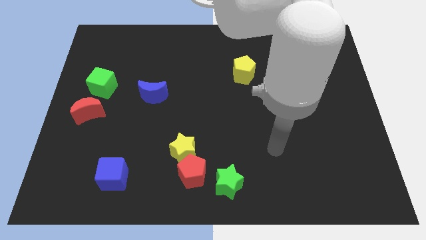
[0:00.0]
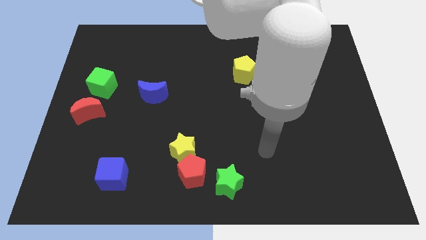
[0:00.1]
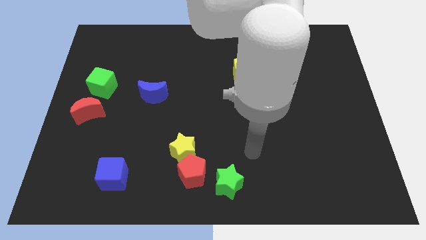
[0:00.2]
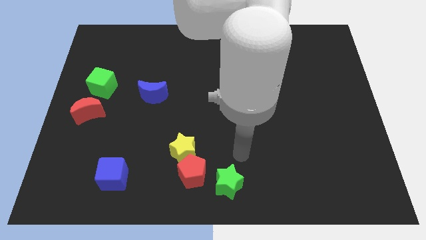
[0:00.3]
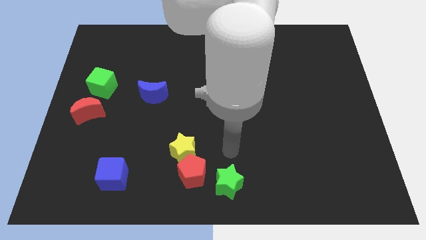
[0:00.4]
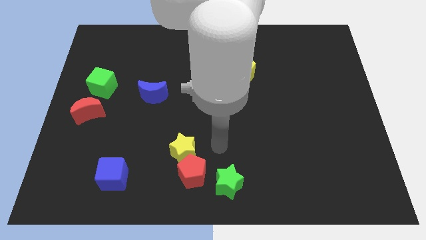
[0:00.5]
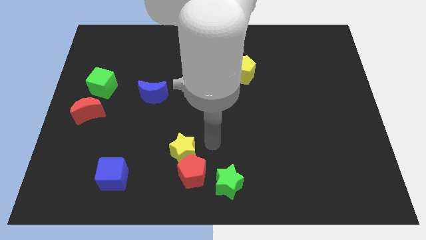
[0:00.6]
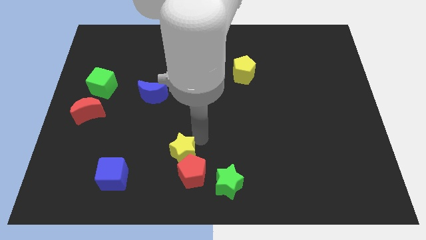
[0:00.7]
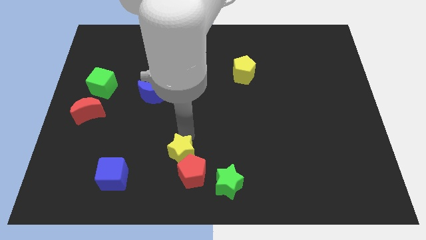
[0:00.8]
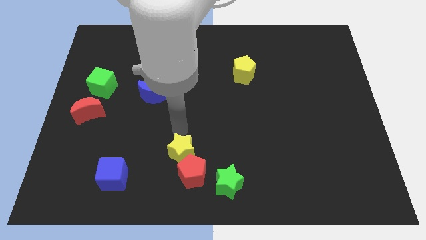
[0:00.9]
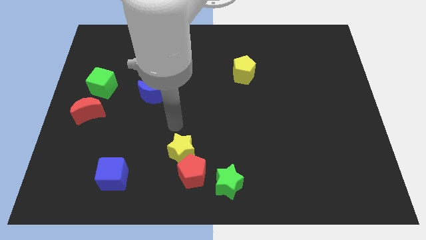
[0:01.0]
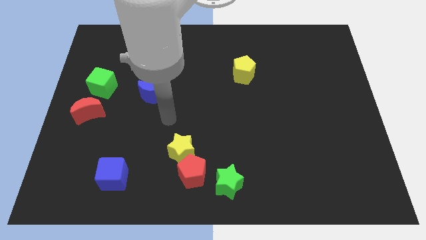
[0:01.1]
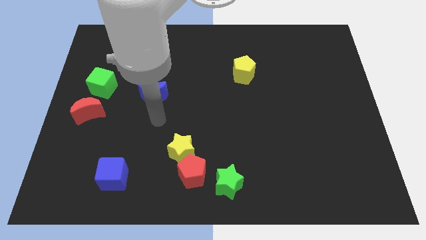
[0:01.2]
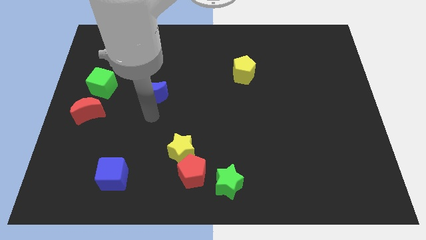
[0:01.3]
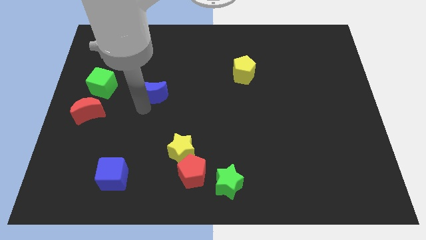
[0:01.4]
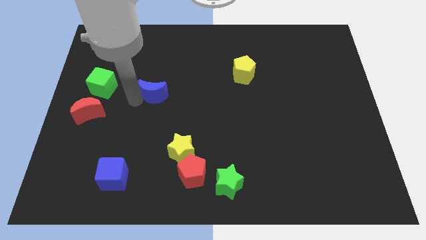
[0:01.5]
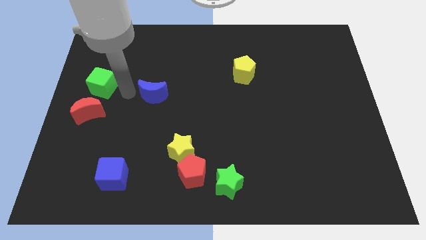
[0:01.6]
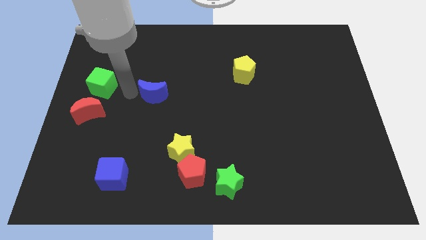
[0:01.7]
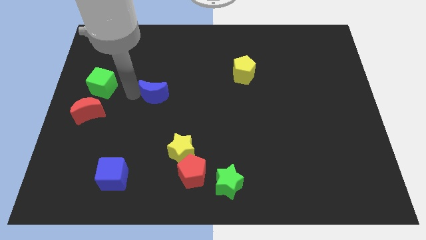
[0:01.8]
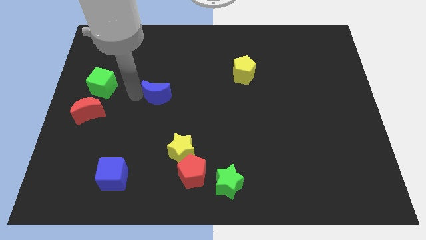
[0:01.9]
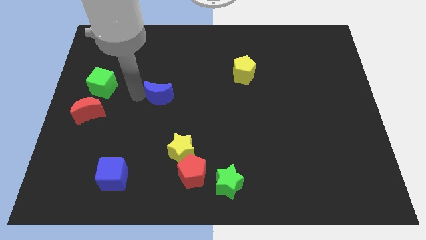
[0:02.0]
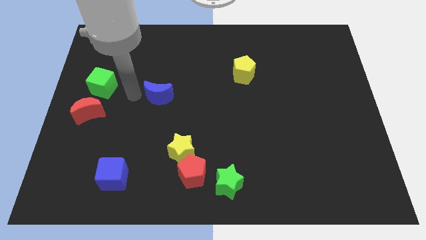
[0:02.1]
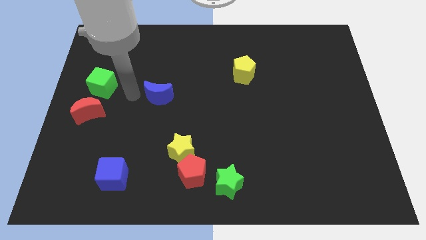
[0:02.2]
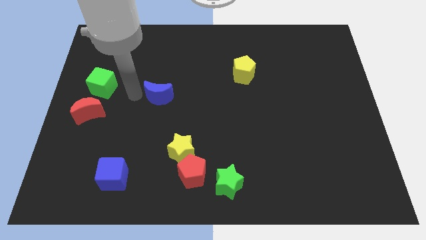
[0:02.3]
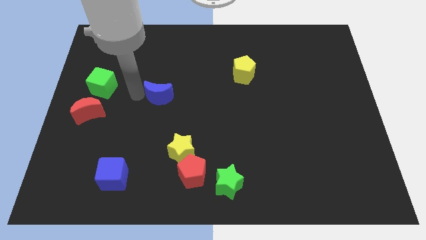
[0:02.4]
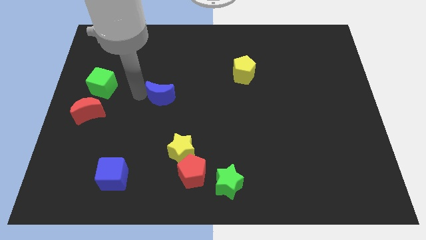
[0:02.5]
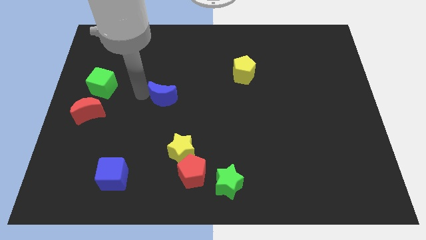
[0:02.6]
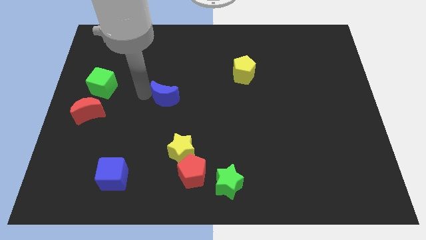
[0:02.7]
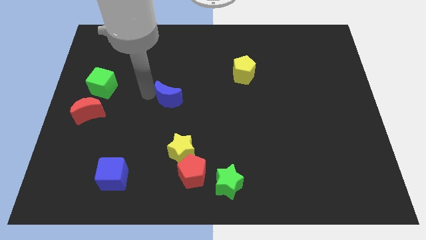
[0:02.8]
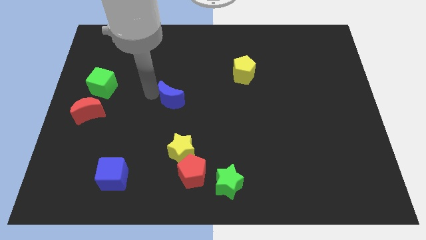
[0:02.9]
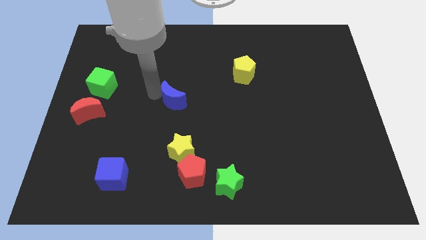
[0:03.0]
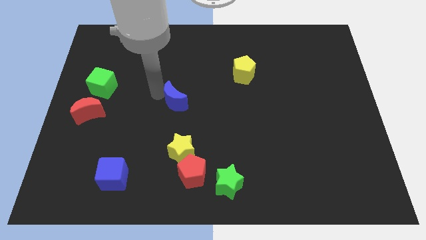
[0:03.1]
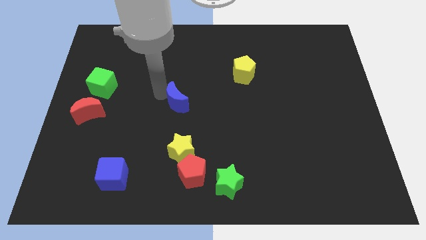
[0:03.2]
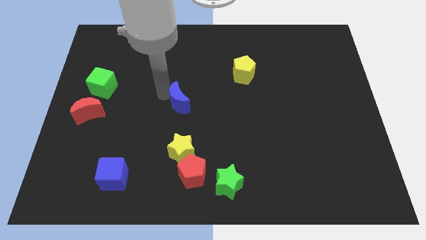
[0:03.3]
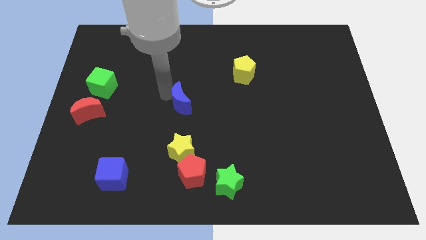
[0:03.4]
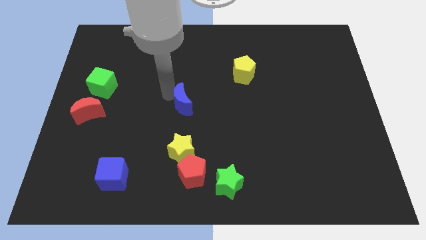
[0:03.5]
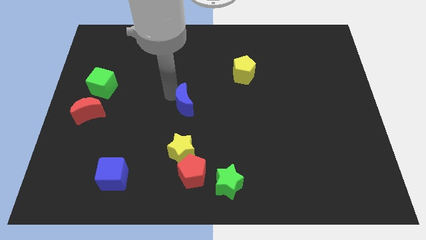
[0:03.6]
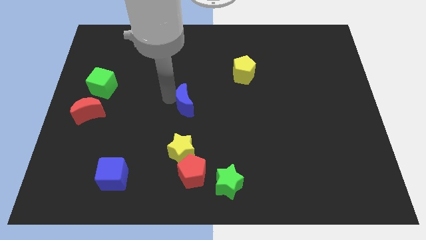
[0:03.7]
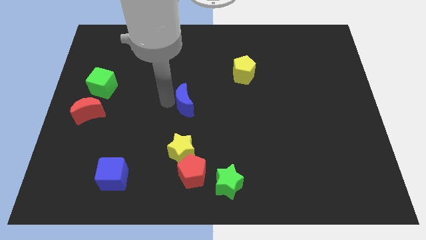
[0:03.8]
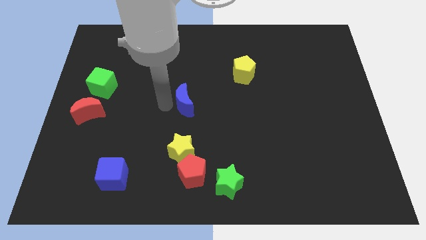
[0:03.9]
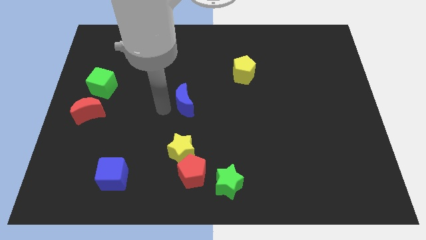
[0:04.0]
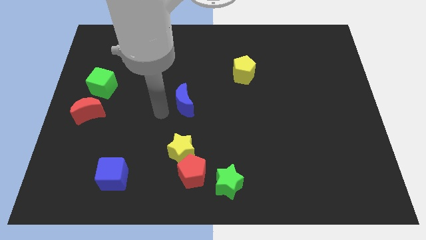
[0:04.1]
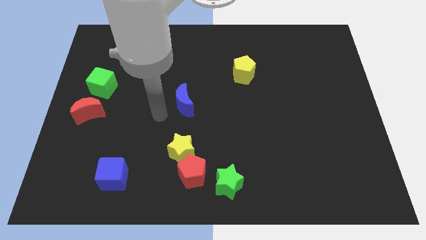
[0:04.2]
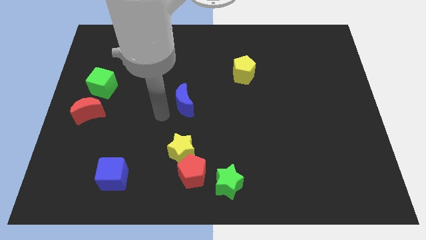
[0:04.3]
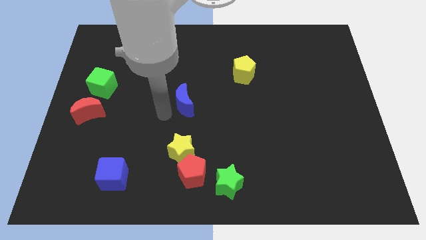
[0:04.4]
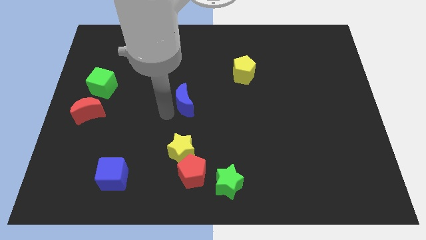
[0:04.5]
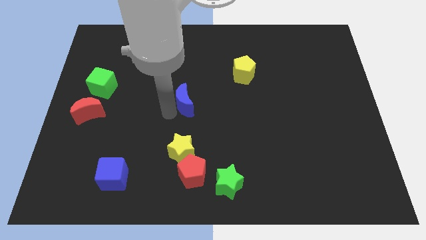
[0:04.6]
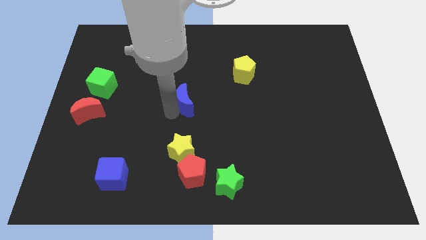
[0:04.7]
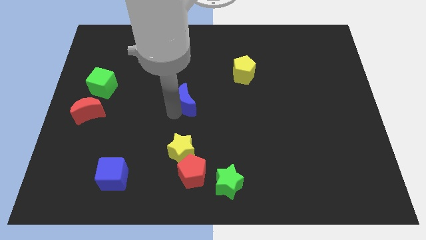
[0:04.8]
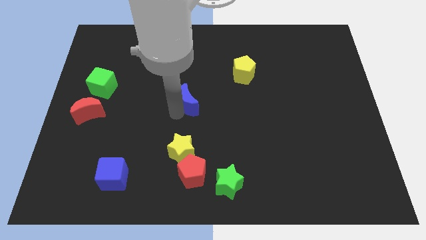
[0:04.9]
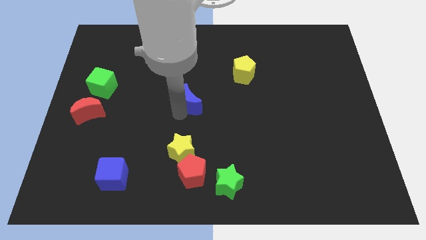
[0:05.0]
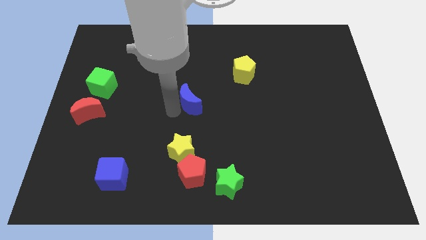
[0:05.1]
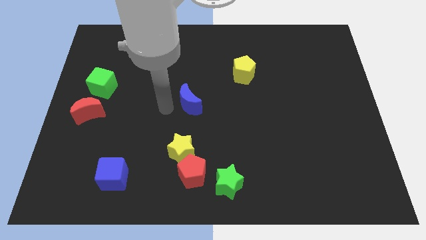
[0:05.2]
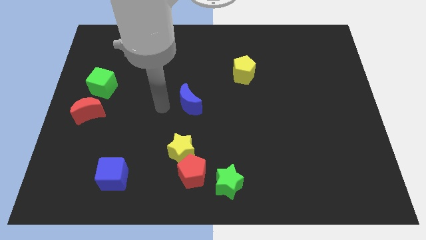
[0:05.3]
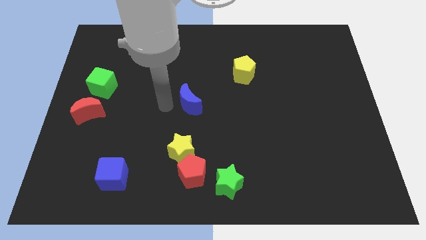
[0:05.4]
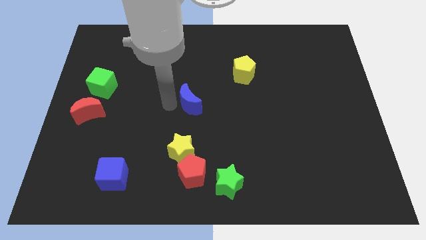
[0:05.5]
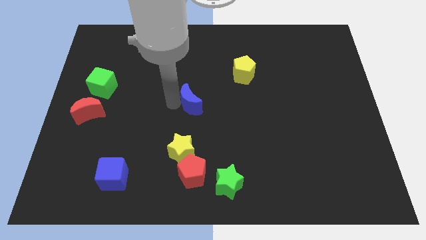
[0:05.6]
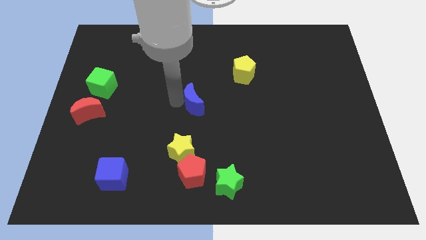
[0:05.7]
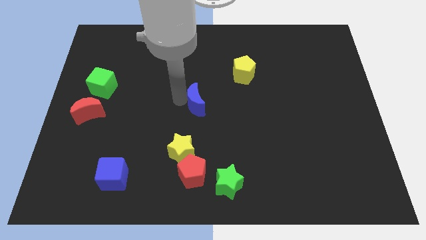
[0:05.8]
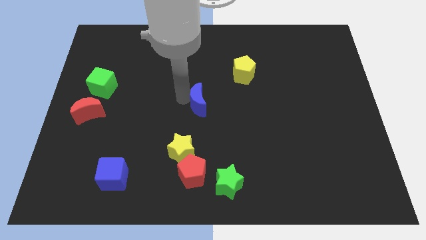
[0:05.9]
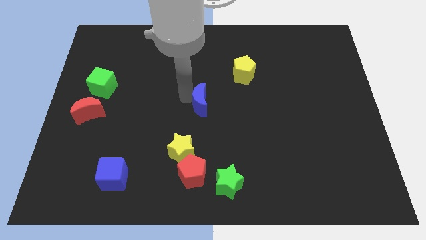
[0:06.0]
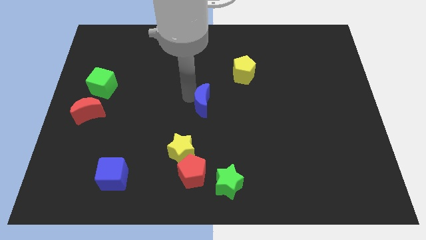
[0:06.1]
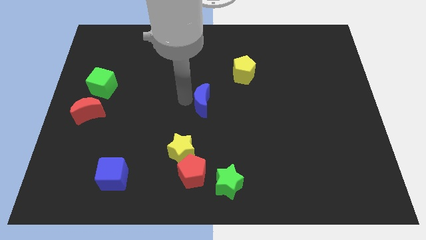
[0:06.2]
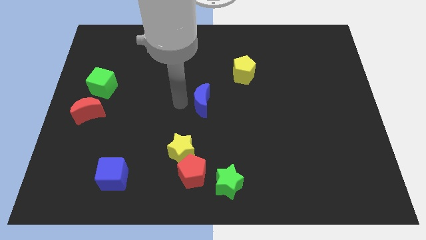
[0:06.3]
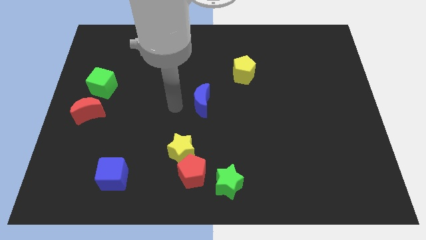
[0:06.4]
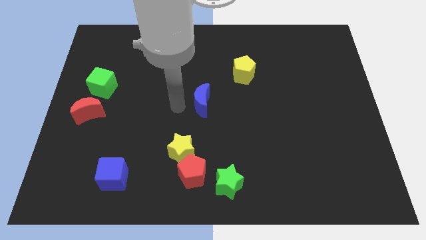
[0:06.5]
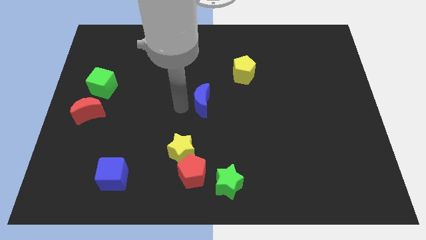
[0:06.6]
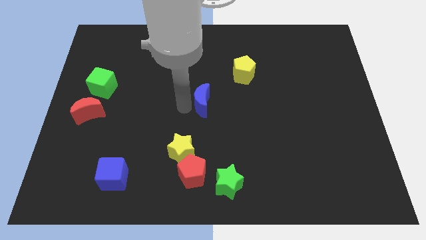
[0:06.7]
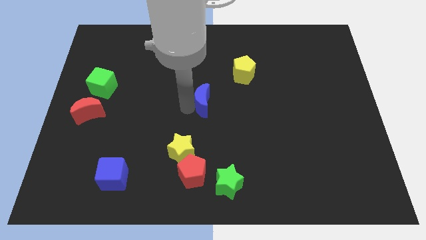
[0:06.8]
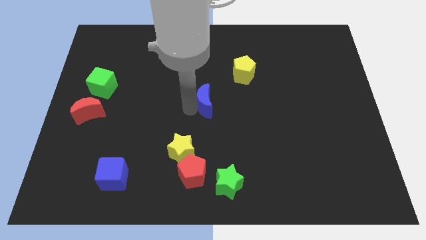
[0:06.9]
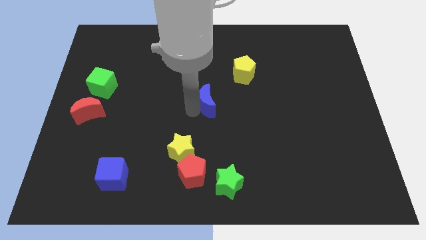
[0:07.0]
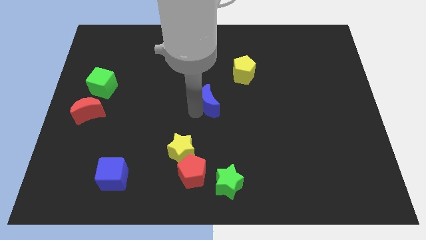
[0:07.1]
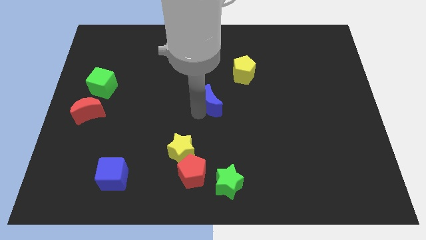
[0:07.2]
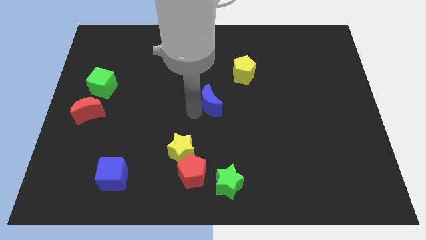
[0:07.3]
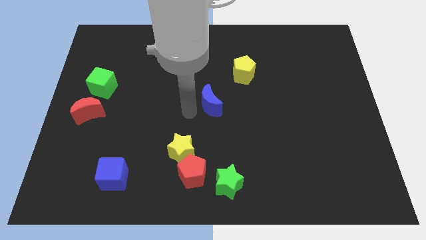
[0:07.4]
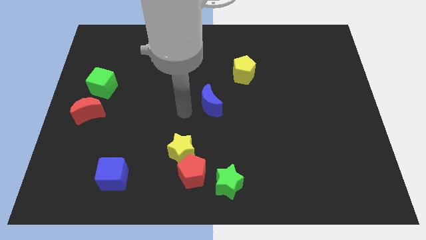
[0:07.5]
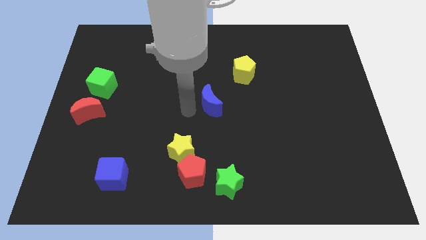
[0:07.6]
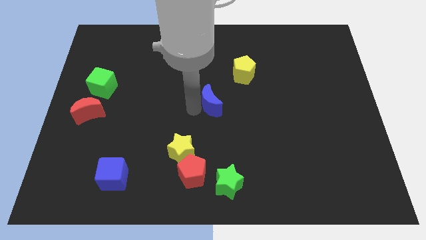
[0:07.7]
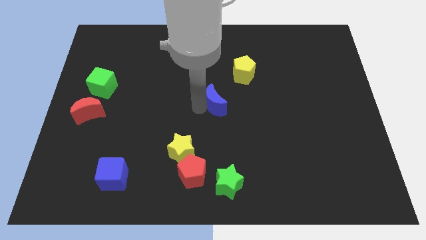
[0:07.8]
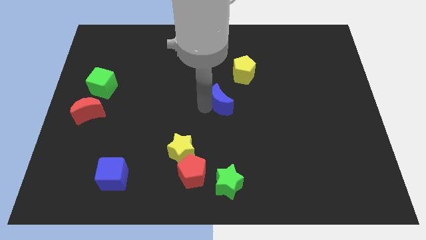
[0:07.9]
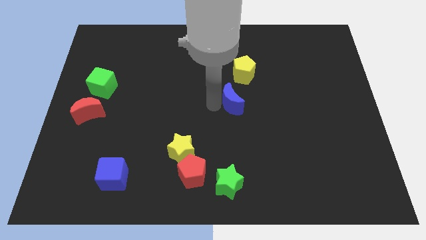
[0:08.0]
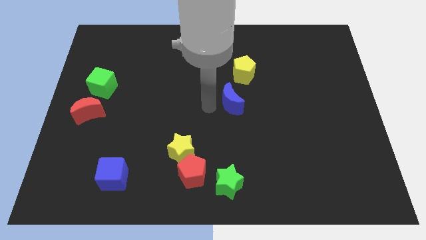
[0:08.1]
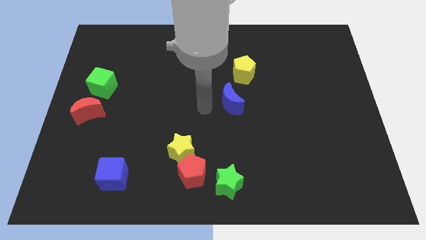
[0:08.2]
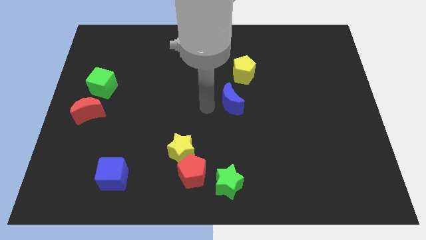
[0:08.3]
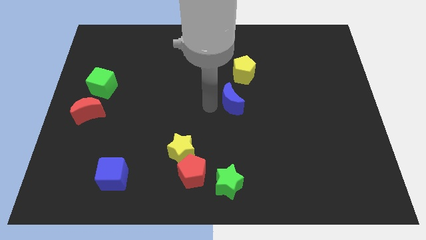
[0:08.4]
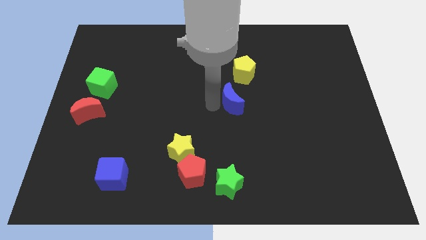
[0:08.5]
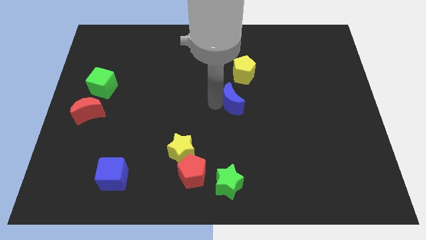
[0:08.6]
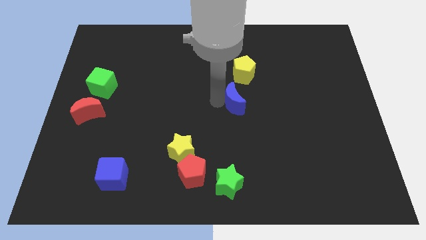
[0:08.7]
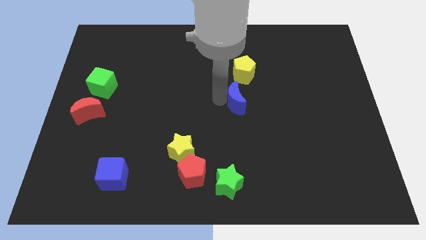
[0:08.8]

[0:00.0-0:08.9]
push the blue moon to the right
